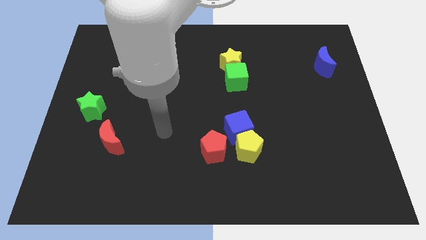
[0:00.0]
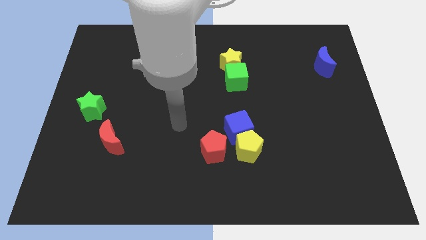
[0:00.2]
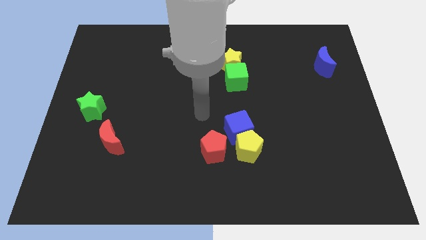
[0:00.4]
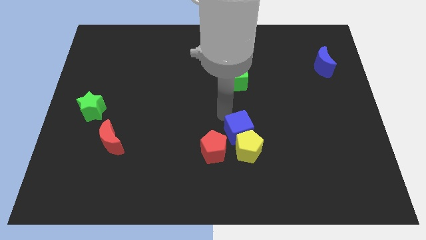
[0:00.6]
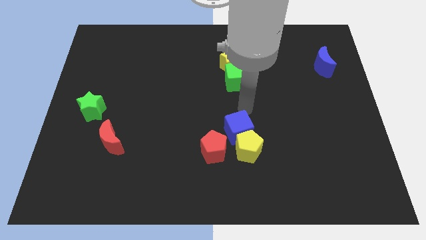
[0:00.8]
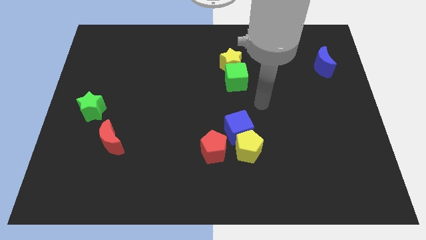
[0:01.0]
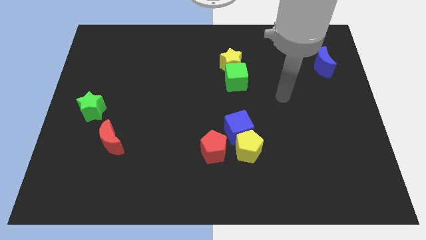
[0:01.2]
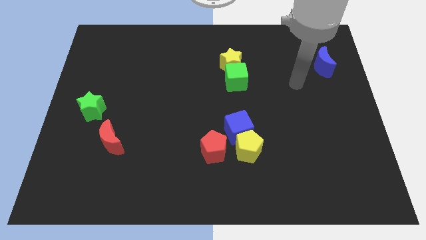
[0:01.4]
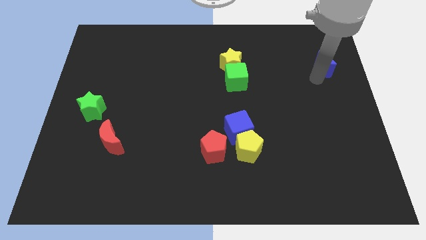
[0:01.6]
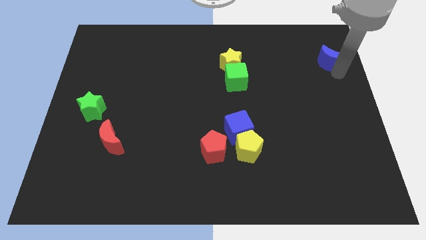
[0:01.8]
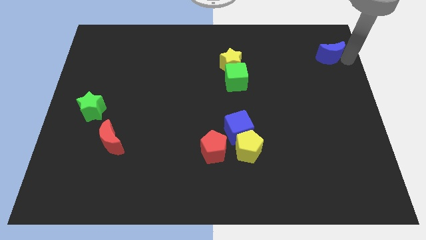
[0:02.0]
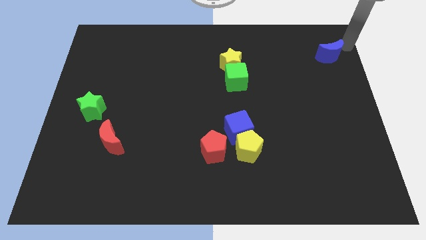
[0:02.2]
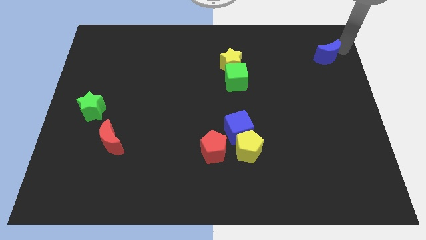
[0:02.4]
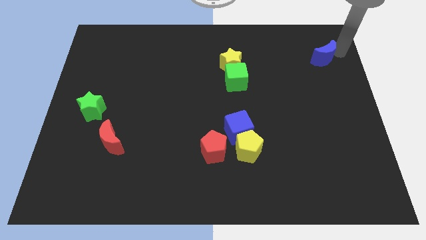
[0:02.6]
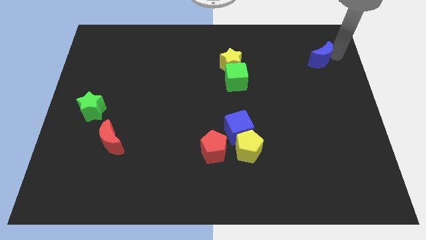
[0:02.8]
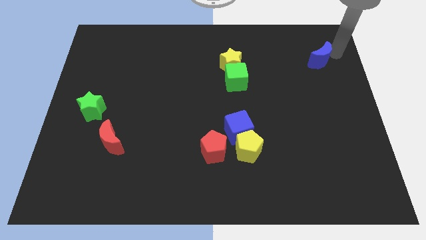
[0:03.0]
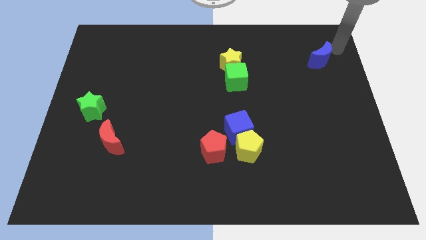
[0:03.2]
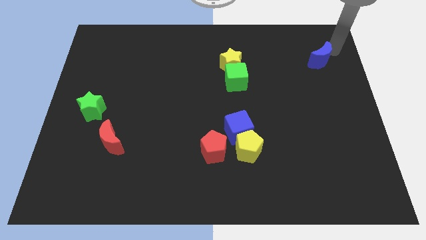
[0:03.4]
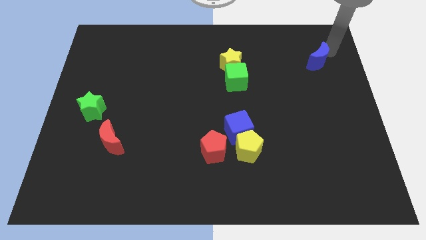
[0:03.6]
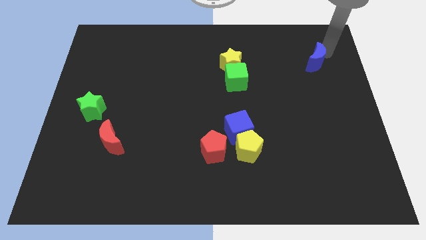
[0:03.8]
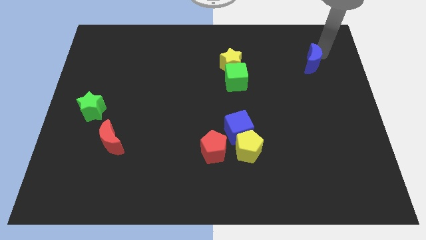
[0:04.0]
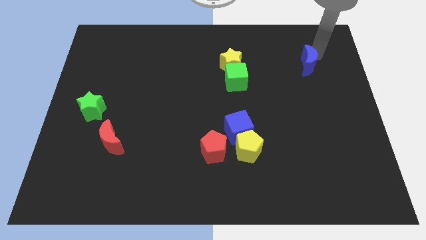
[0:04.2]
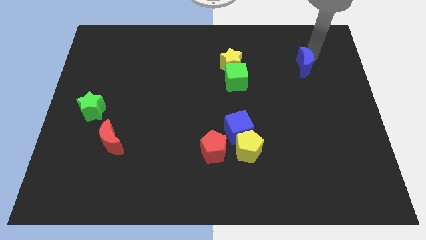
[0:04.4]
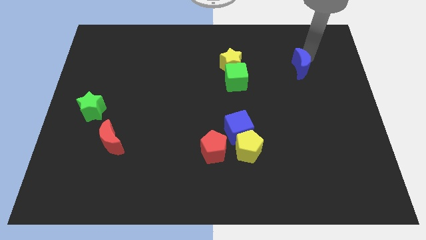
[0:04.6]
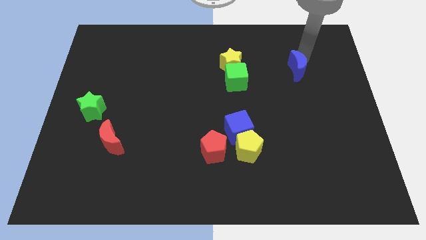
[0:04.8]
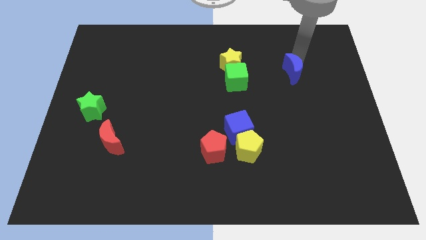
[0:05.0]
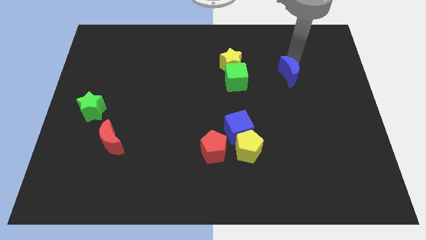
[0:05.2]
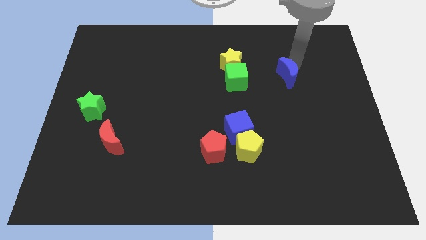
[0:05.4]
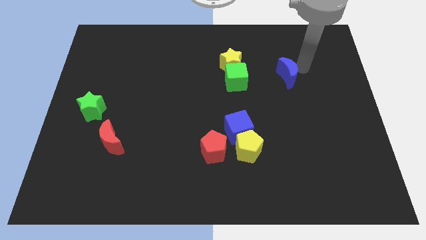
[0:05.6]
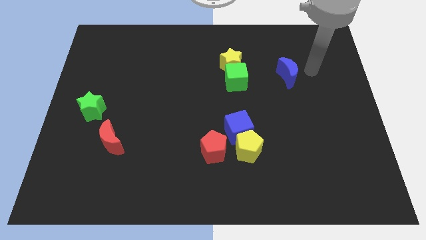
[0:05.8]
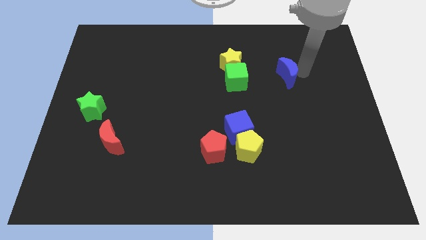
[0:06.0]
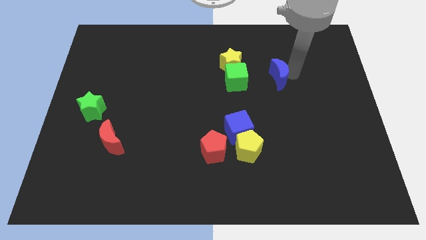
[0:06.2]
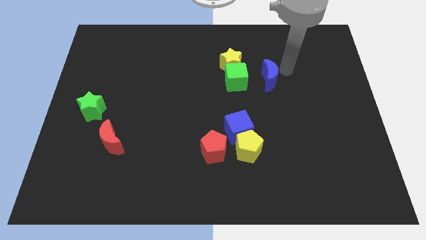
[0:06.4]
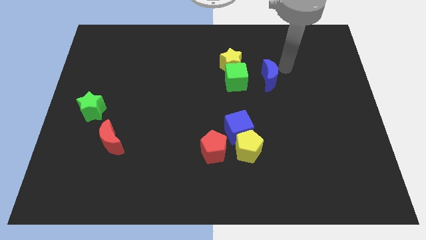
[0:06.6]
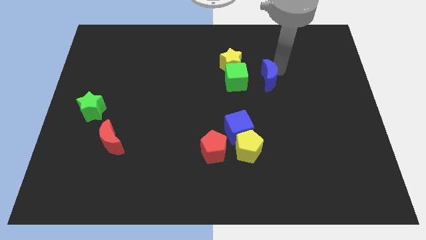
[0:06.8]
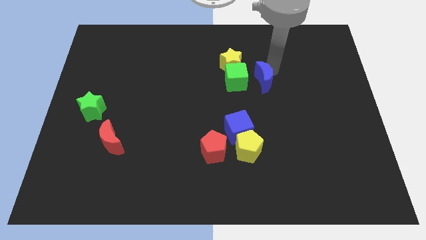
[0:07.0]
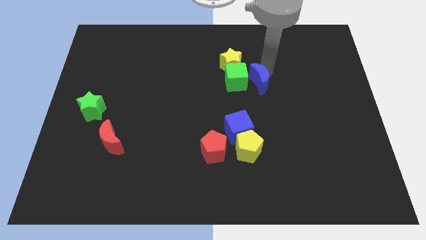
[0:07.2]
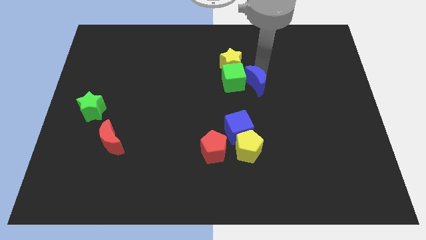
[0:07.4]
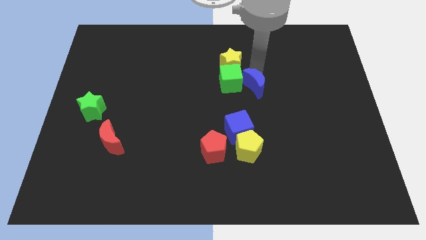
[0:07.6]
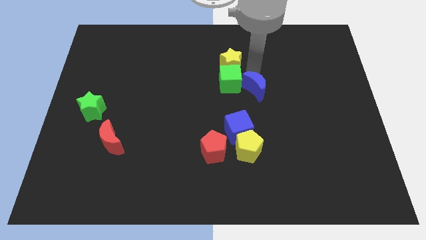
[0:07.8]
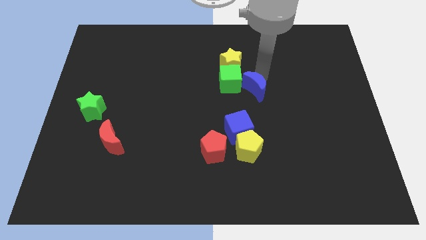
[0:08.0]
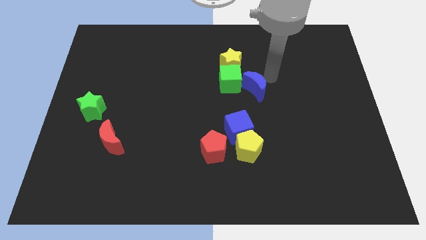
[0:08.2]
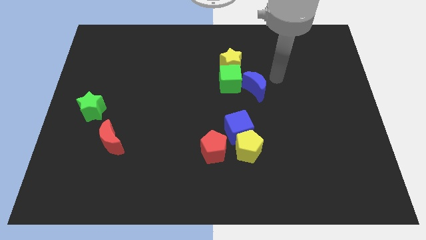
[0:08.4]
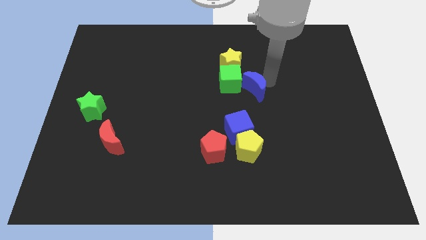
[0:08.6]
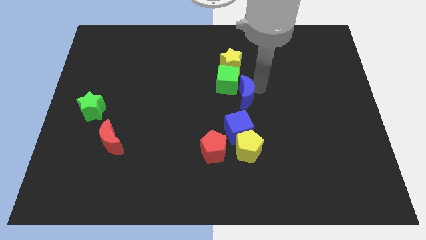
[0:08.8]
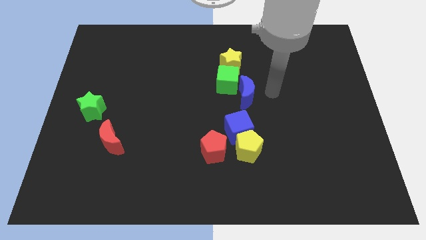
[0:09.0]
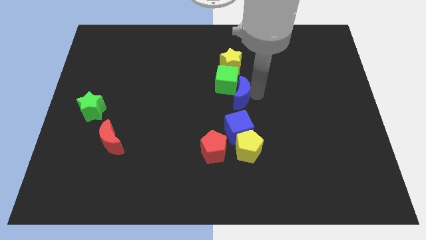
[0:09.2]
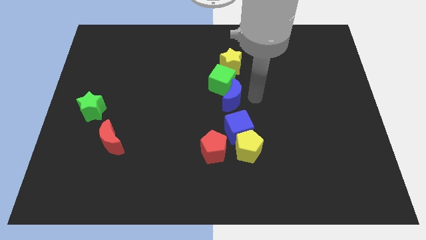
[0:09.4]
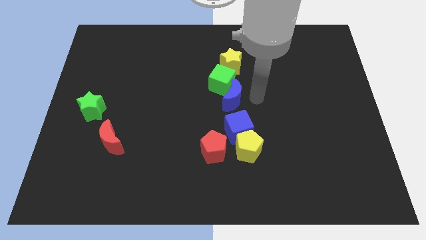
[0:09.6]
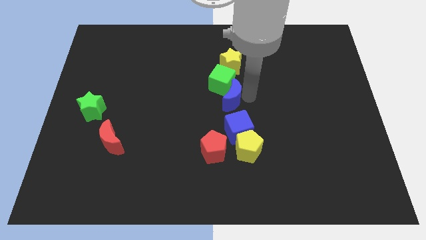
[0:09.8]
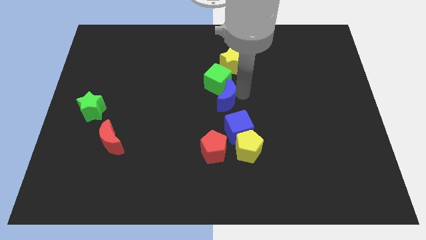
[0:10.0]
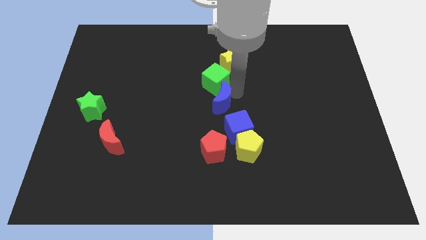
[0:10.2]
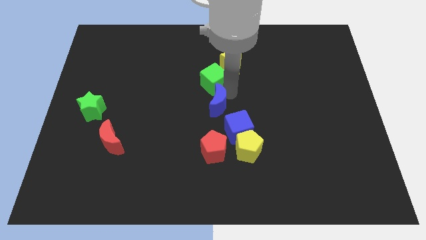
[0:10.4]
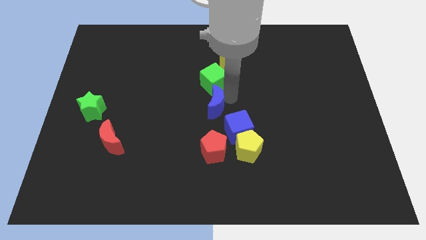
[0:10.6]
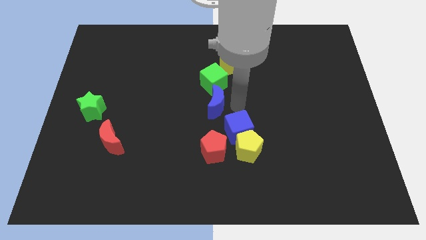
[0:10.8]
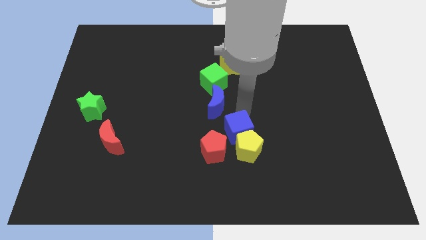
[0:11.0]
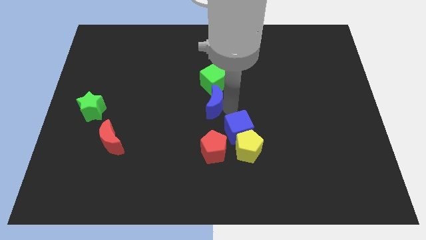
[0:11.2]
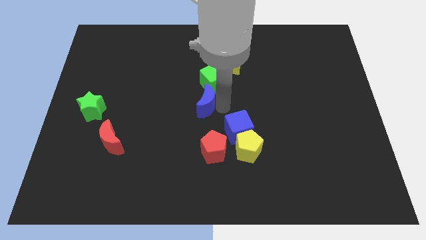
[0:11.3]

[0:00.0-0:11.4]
move the blue moon to the bottom left of the green cube
